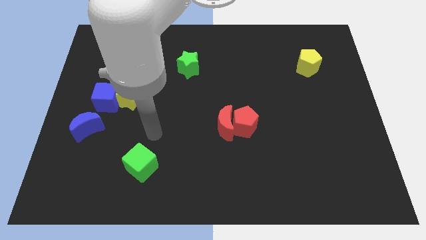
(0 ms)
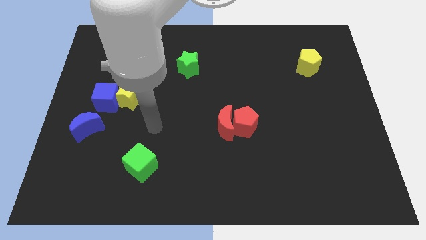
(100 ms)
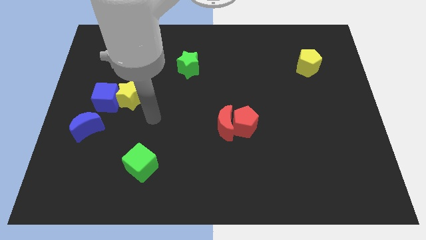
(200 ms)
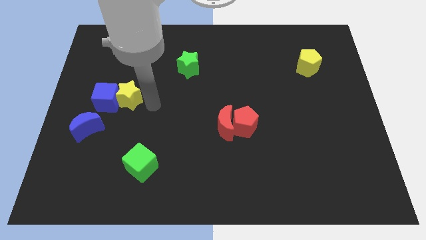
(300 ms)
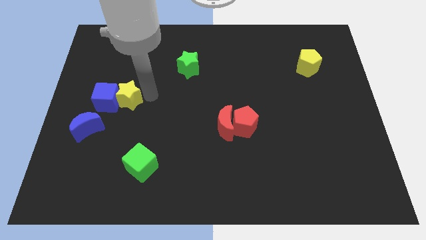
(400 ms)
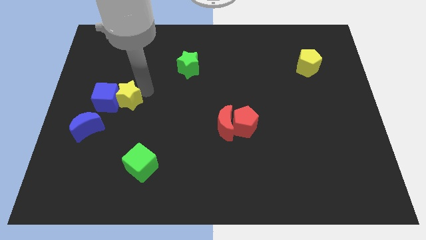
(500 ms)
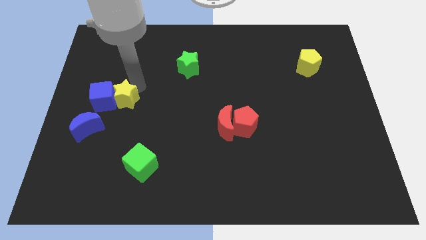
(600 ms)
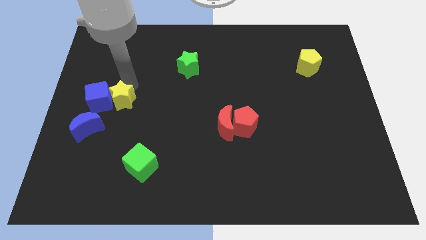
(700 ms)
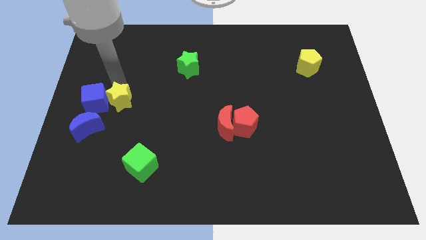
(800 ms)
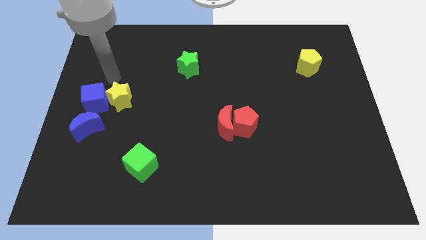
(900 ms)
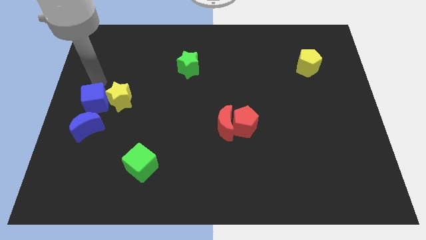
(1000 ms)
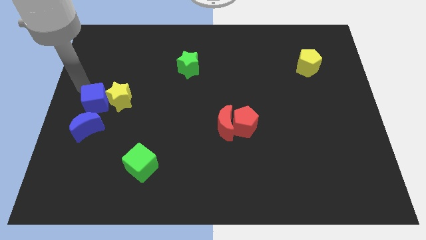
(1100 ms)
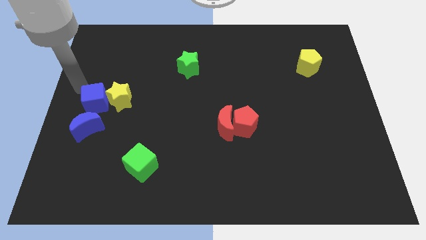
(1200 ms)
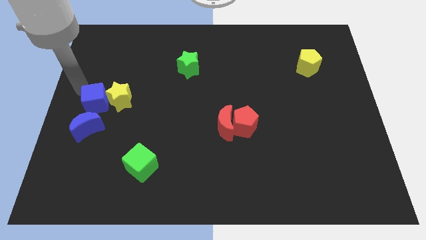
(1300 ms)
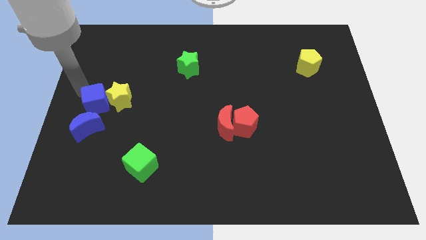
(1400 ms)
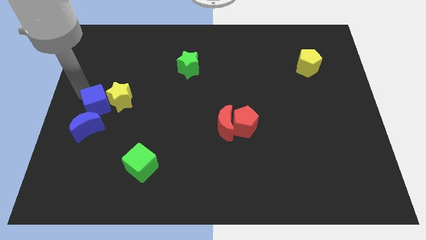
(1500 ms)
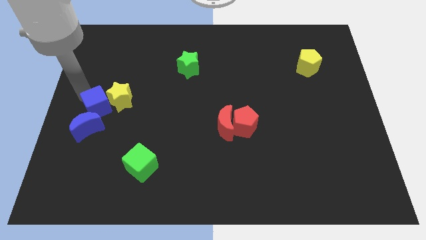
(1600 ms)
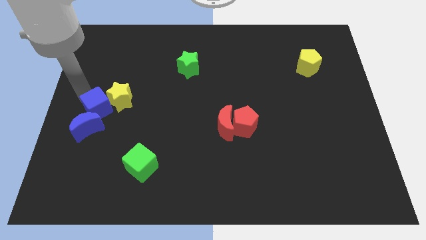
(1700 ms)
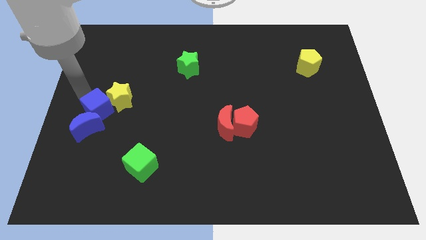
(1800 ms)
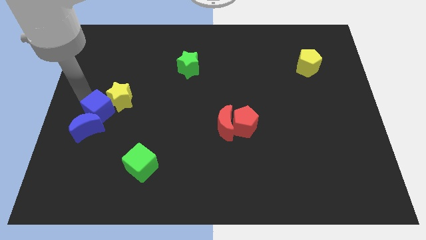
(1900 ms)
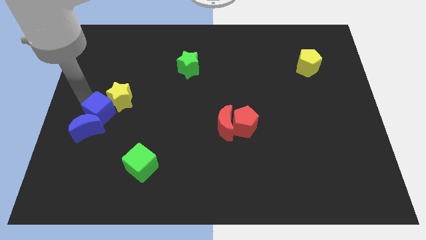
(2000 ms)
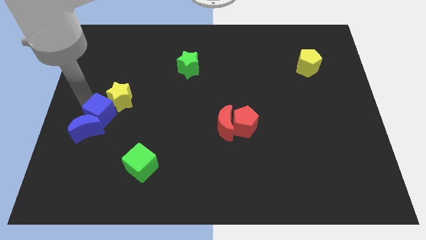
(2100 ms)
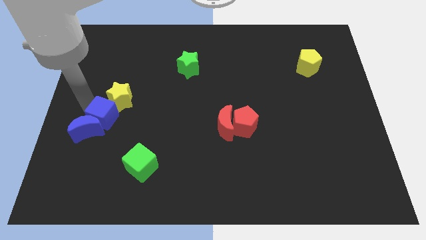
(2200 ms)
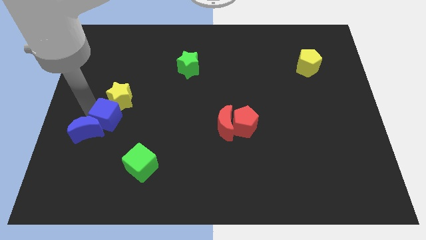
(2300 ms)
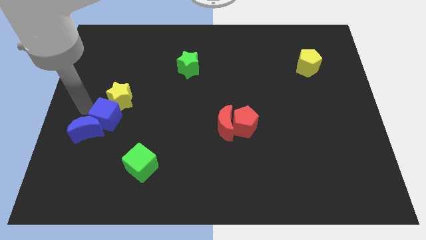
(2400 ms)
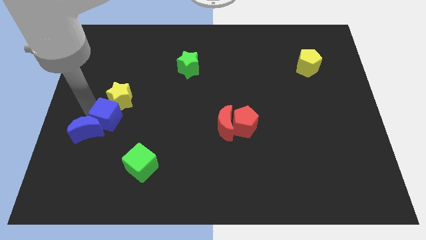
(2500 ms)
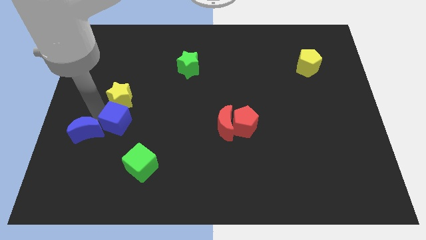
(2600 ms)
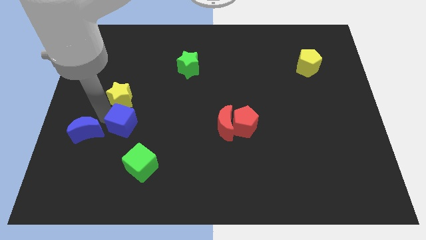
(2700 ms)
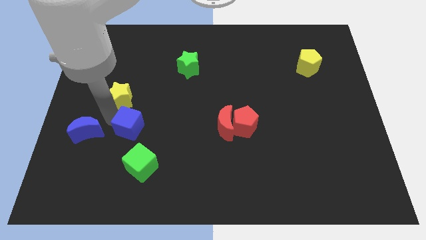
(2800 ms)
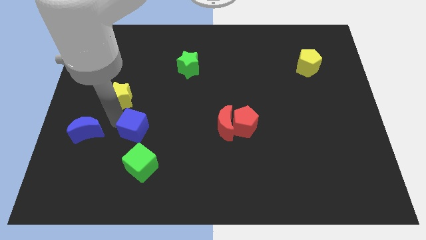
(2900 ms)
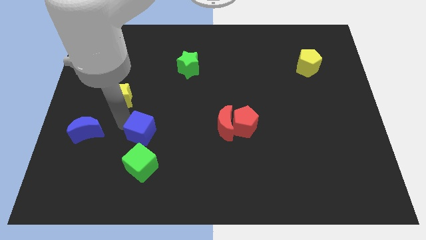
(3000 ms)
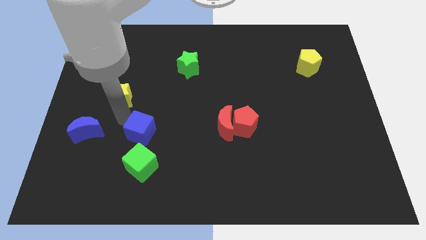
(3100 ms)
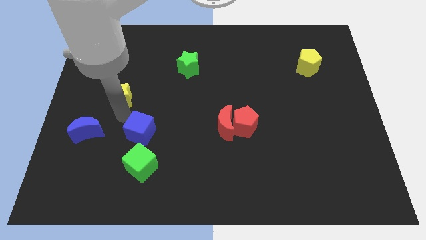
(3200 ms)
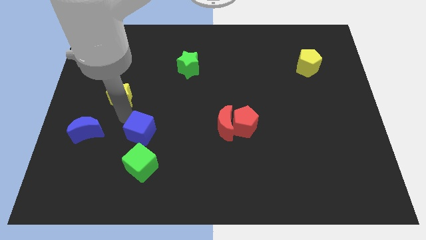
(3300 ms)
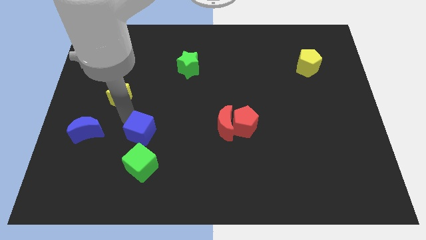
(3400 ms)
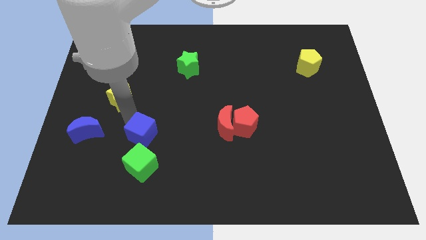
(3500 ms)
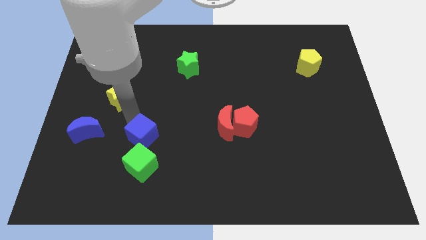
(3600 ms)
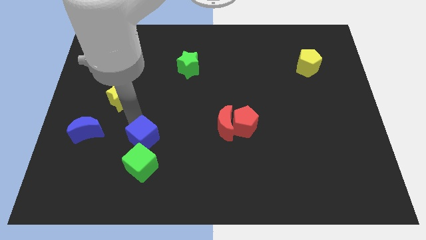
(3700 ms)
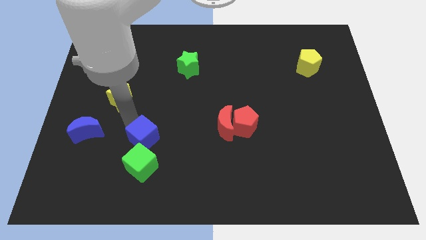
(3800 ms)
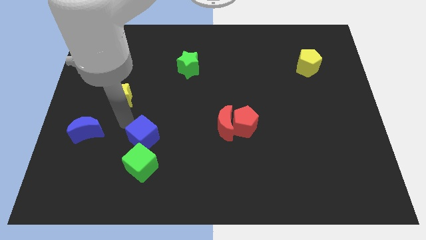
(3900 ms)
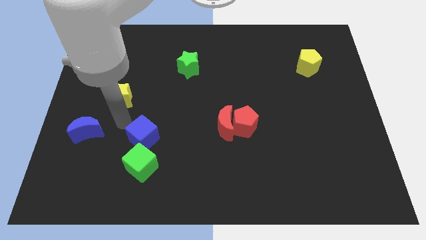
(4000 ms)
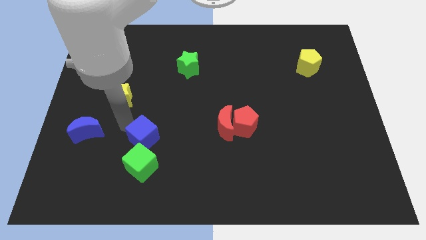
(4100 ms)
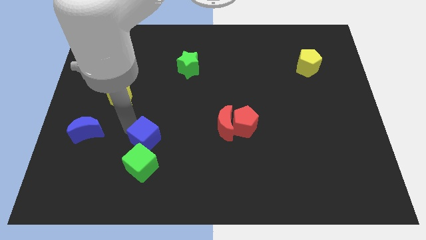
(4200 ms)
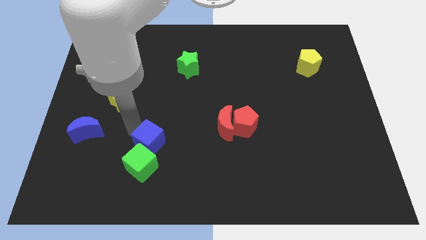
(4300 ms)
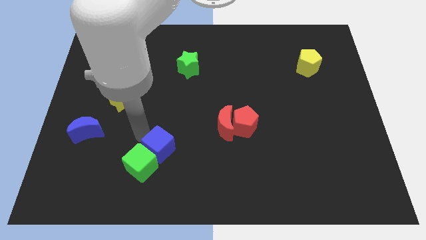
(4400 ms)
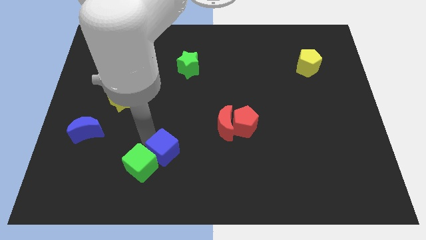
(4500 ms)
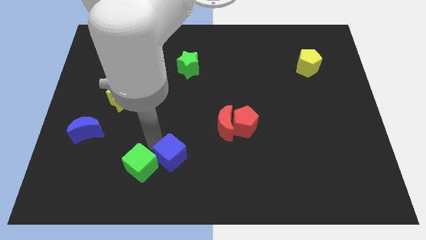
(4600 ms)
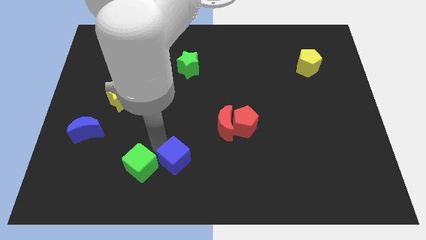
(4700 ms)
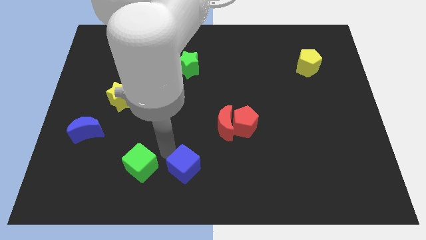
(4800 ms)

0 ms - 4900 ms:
move the blue cube to the bottom

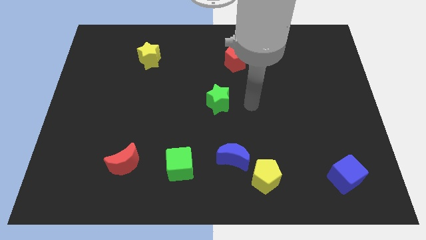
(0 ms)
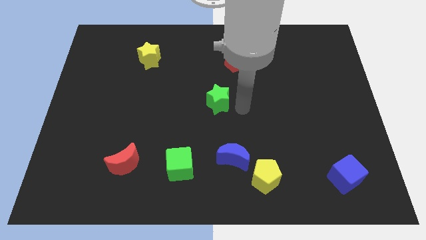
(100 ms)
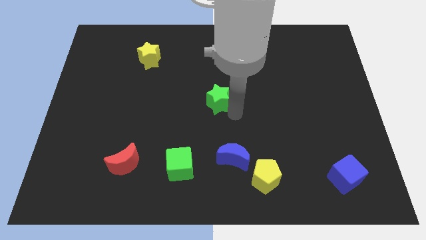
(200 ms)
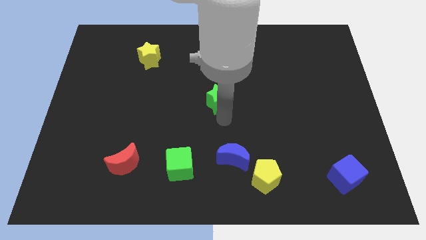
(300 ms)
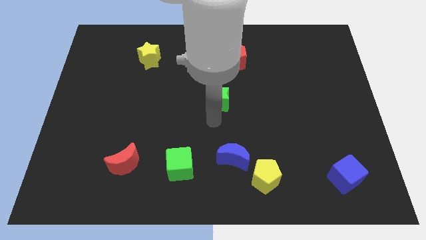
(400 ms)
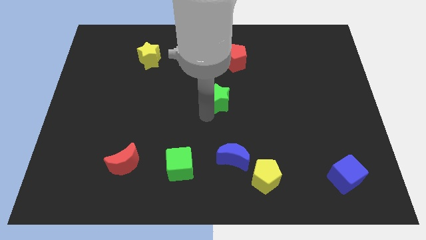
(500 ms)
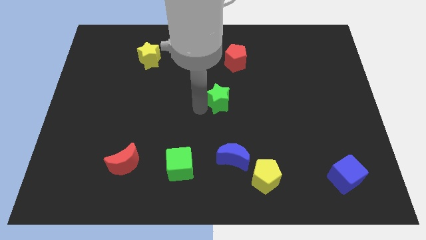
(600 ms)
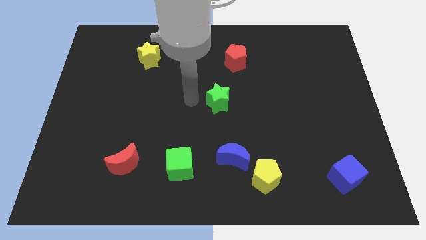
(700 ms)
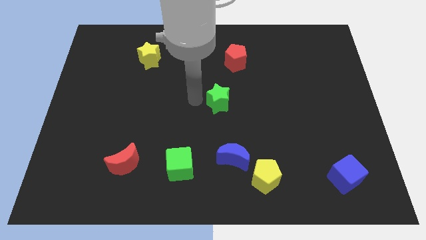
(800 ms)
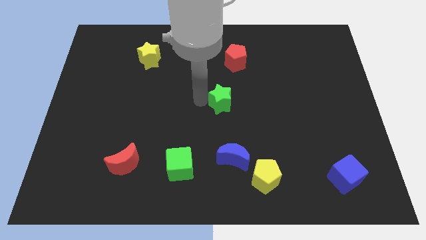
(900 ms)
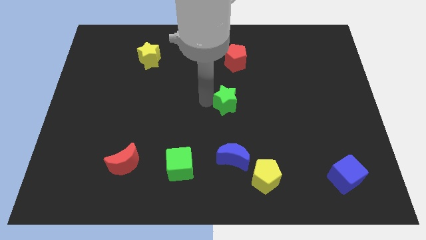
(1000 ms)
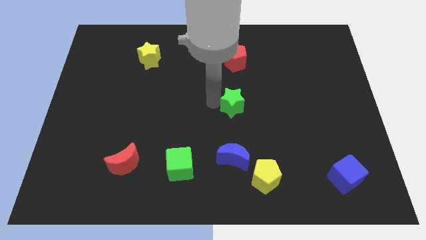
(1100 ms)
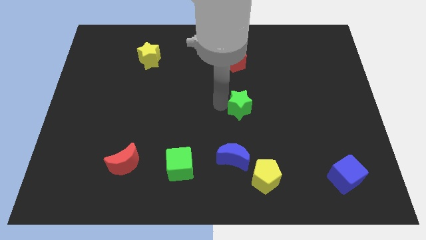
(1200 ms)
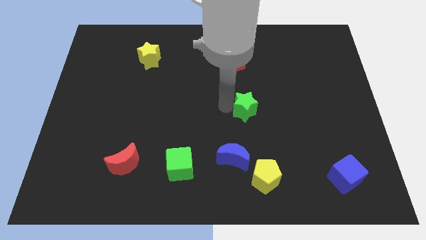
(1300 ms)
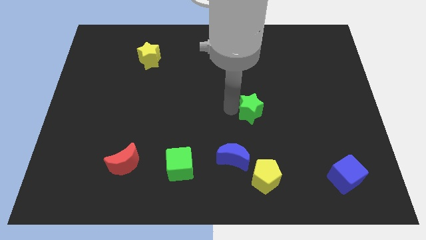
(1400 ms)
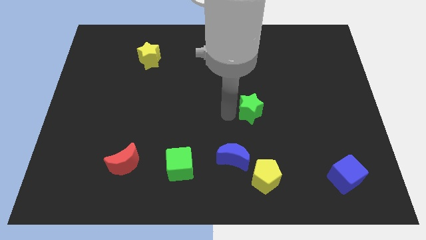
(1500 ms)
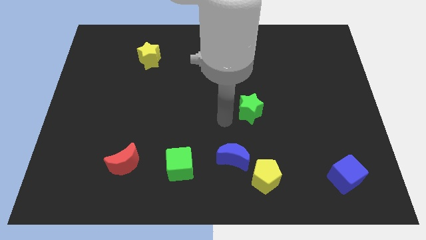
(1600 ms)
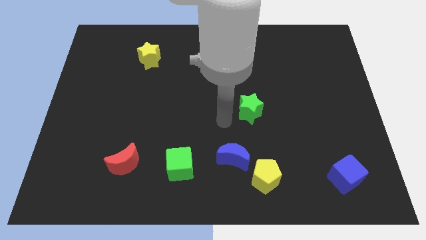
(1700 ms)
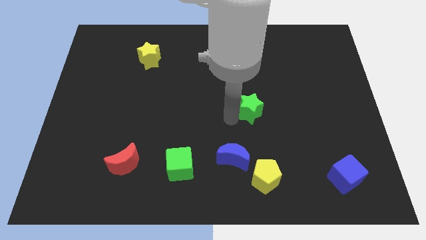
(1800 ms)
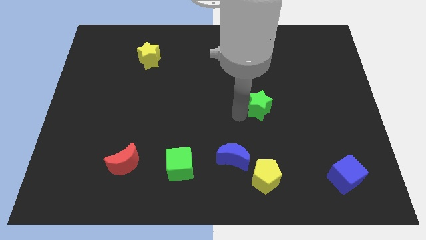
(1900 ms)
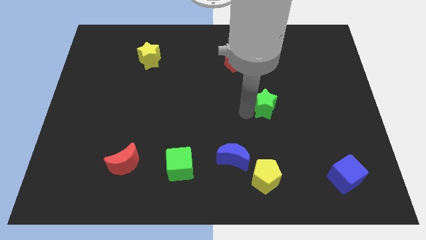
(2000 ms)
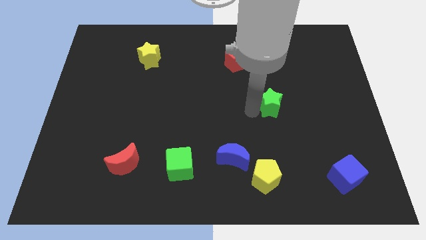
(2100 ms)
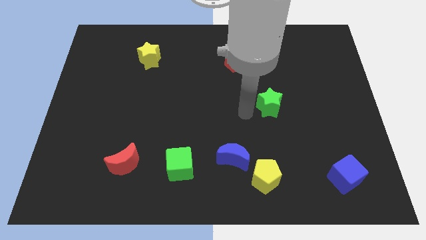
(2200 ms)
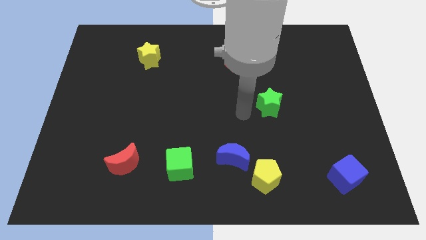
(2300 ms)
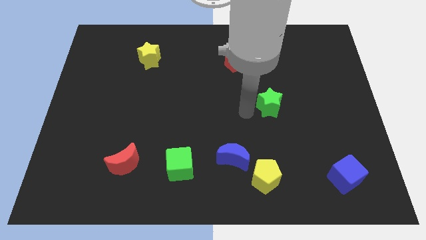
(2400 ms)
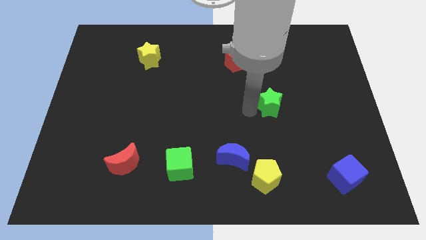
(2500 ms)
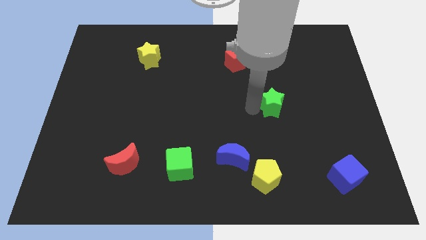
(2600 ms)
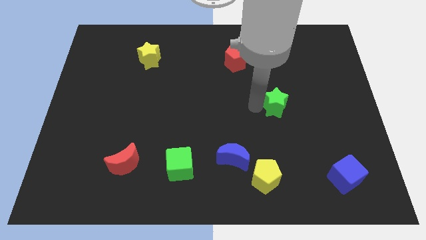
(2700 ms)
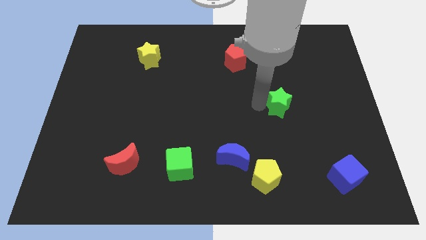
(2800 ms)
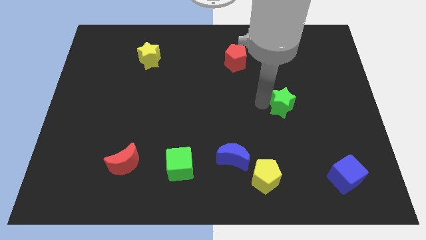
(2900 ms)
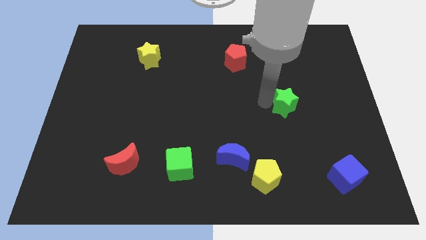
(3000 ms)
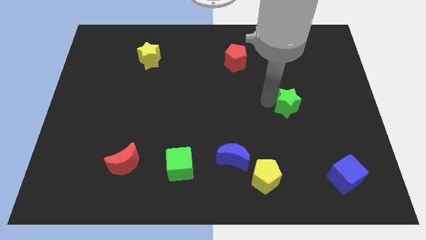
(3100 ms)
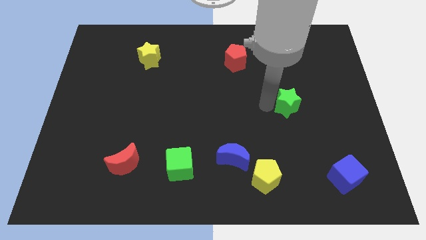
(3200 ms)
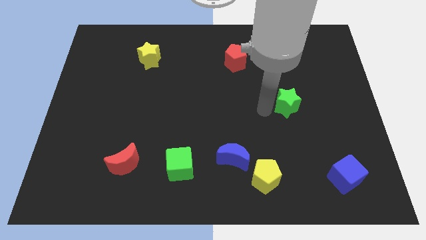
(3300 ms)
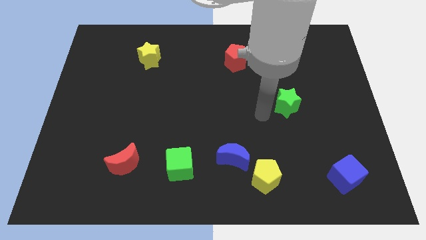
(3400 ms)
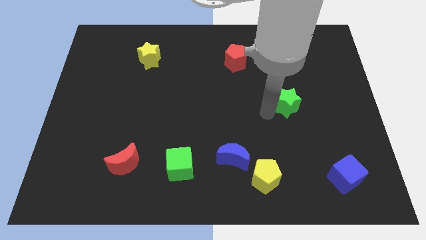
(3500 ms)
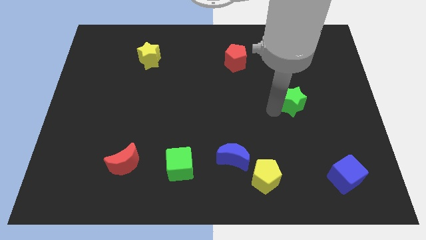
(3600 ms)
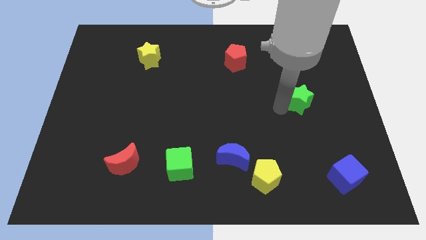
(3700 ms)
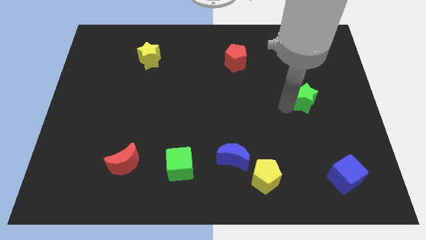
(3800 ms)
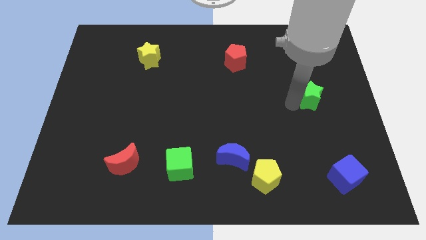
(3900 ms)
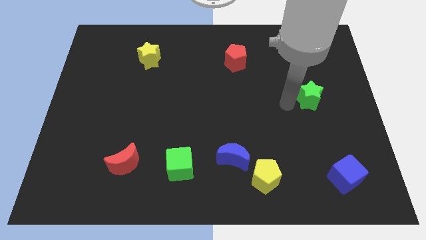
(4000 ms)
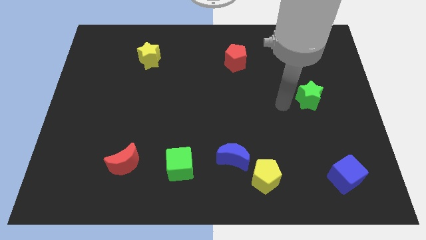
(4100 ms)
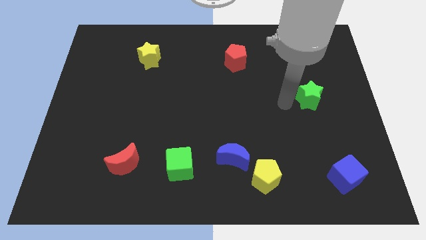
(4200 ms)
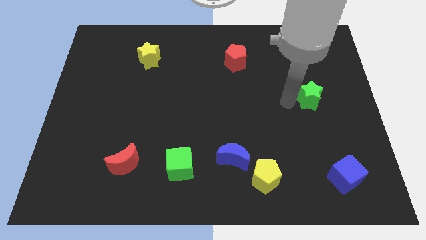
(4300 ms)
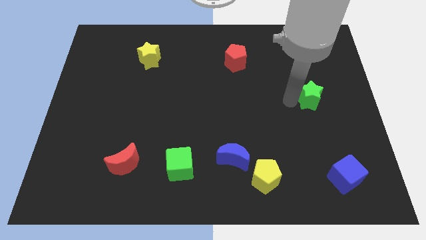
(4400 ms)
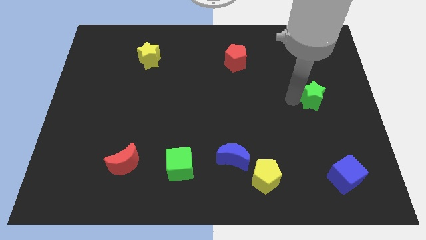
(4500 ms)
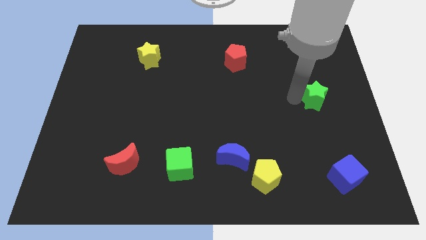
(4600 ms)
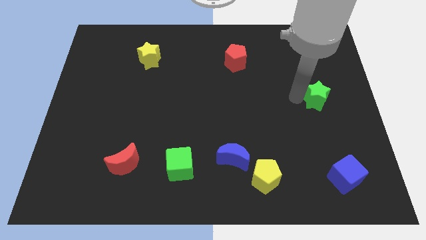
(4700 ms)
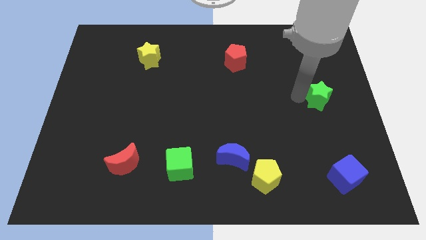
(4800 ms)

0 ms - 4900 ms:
push the green star to the right side of the board
